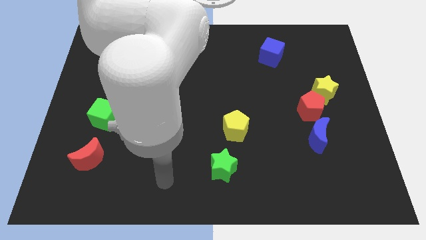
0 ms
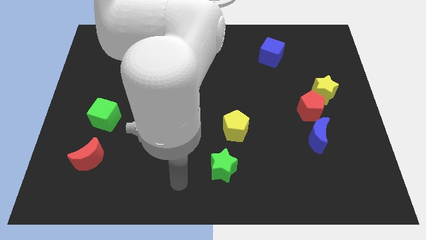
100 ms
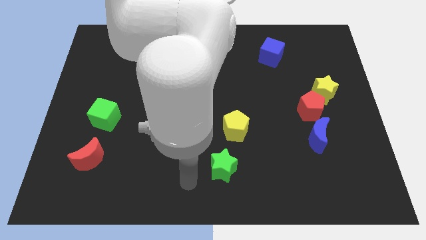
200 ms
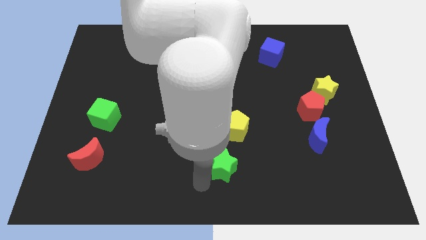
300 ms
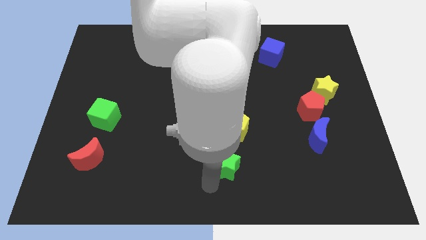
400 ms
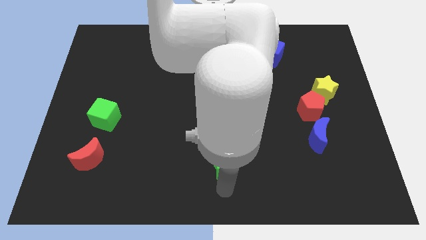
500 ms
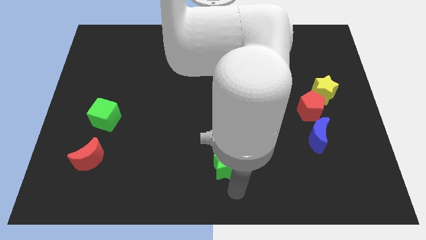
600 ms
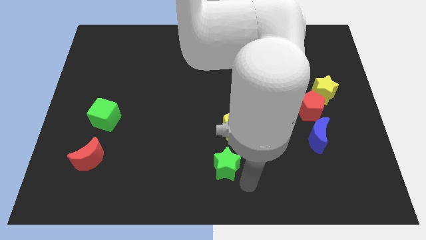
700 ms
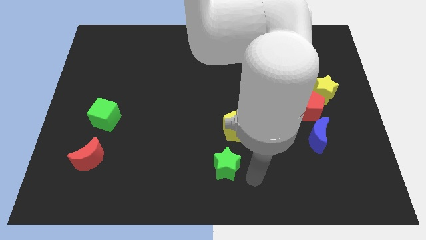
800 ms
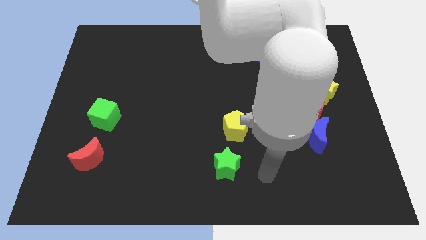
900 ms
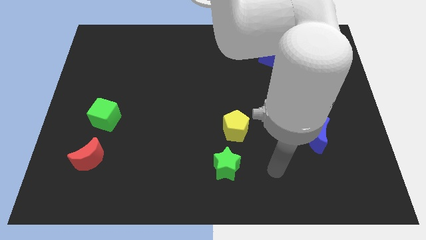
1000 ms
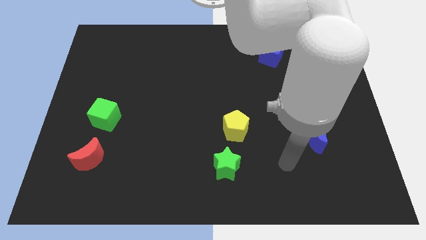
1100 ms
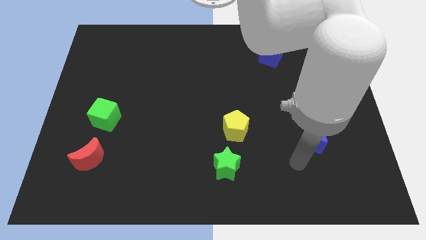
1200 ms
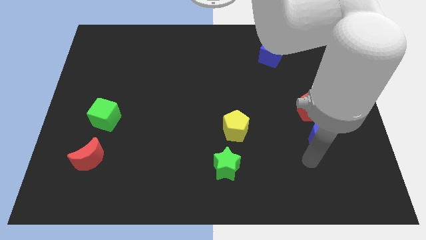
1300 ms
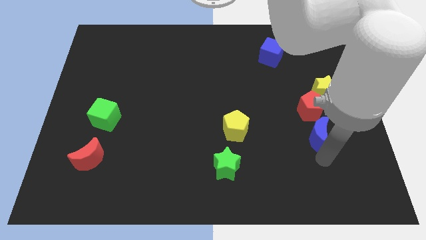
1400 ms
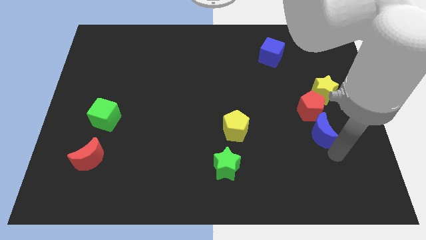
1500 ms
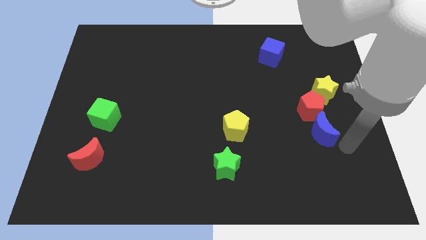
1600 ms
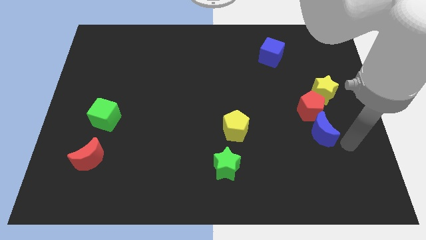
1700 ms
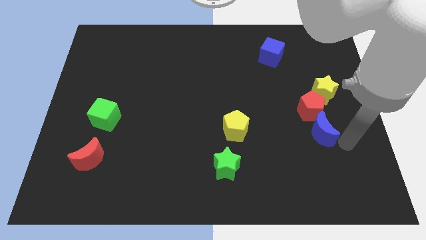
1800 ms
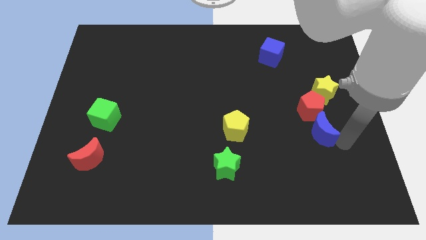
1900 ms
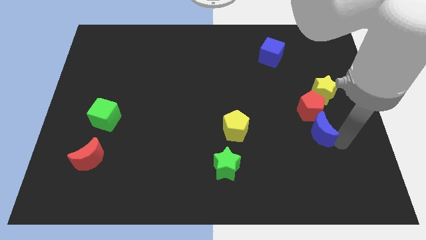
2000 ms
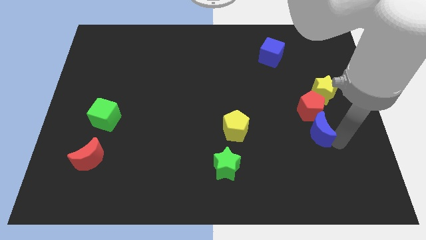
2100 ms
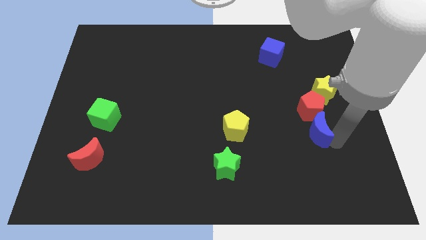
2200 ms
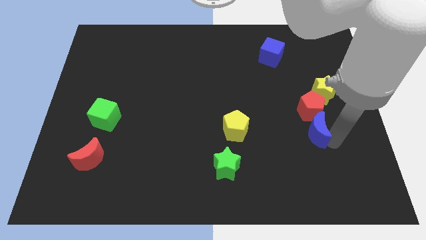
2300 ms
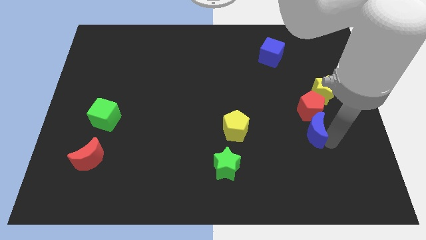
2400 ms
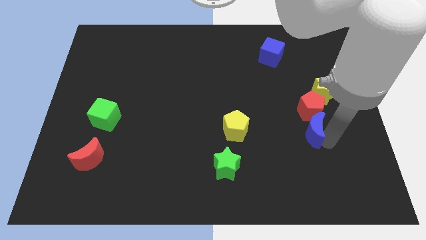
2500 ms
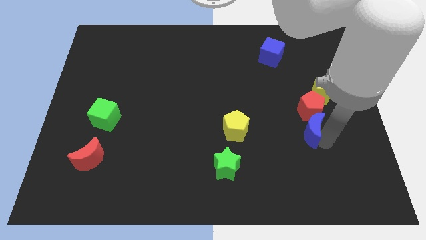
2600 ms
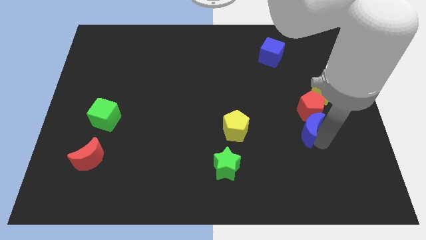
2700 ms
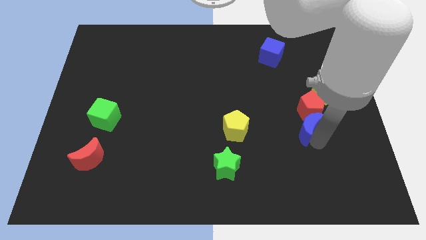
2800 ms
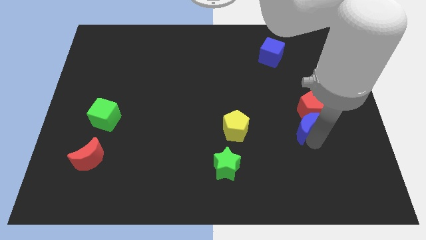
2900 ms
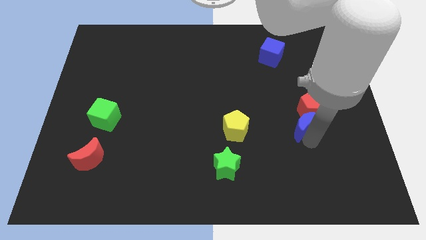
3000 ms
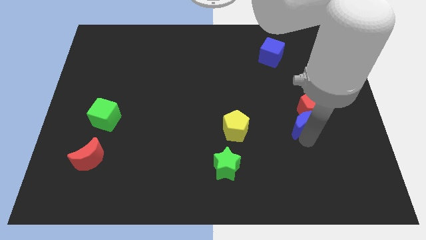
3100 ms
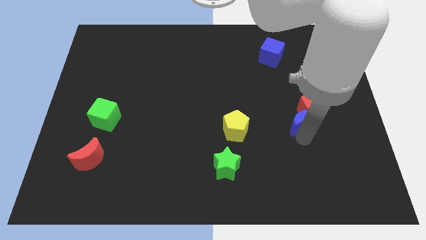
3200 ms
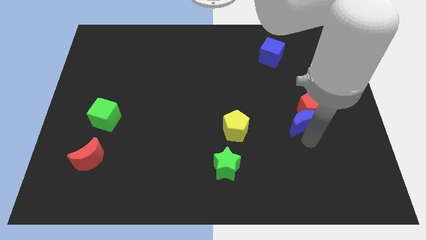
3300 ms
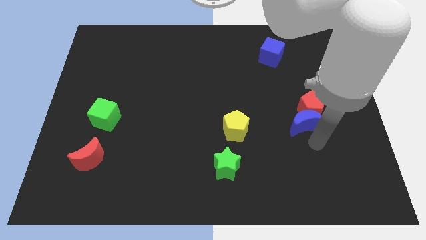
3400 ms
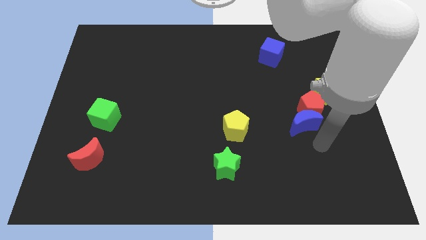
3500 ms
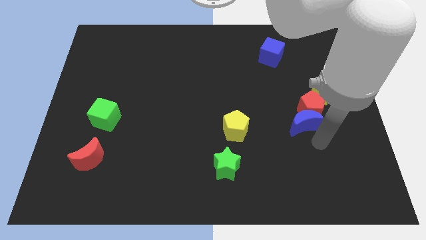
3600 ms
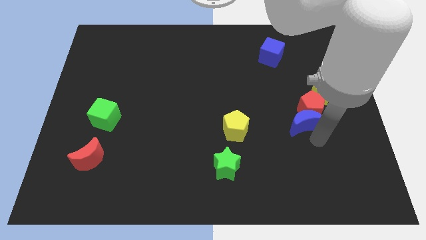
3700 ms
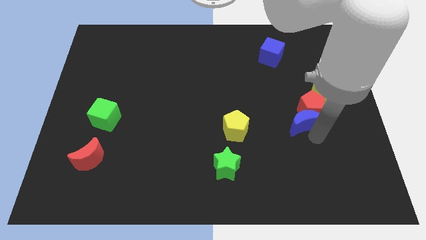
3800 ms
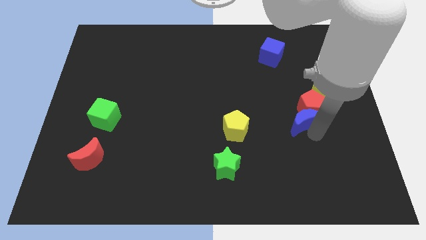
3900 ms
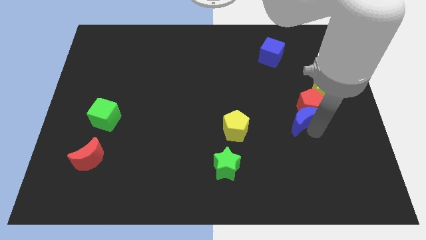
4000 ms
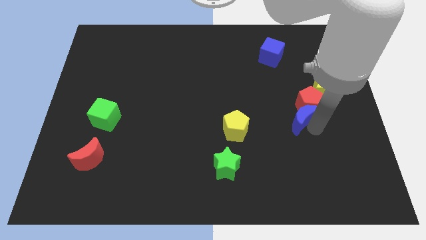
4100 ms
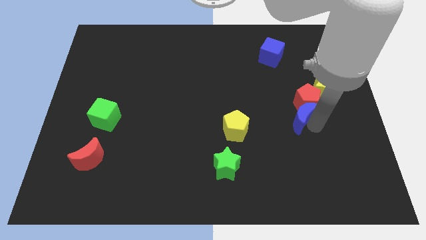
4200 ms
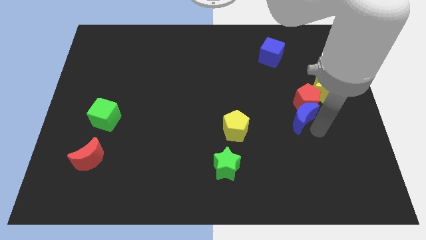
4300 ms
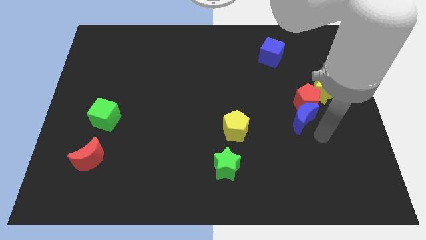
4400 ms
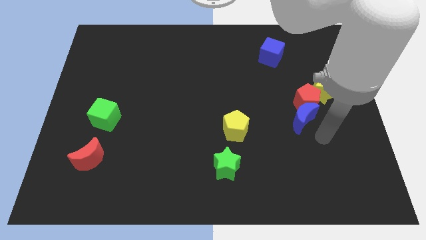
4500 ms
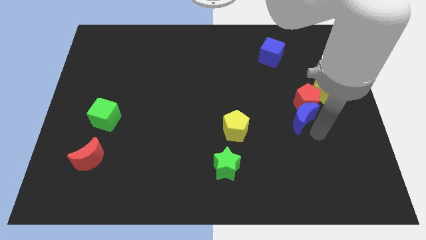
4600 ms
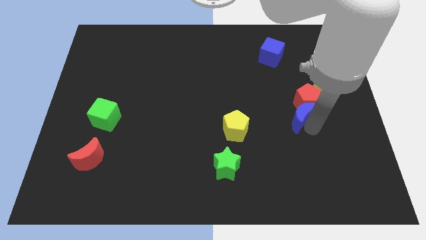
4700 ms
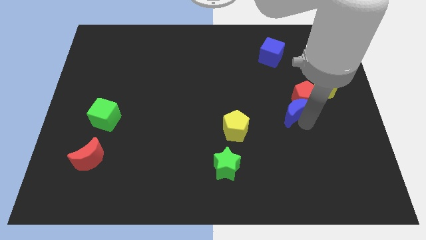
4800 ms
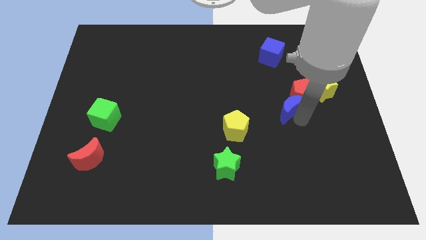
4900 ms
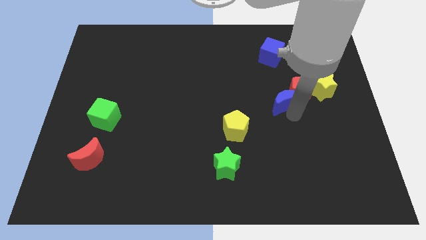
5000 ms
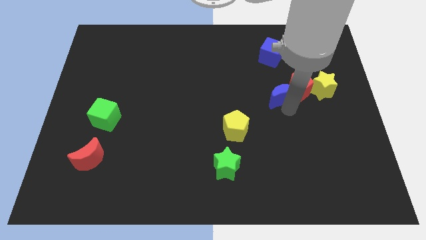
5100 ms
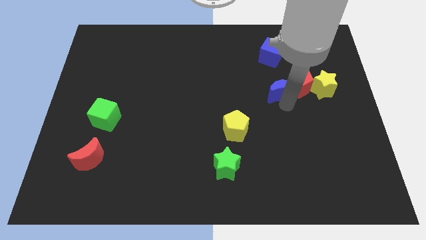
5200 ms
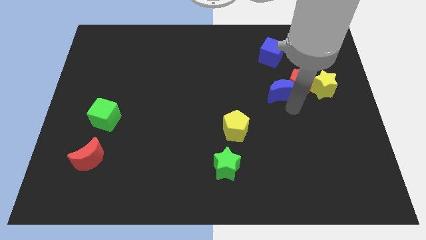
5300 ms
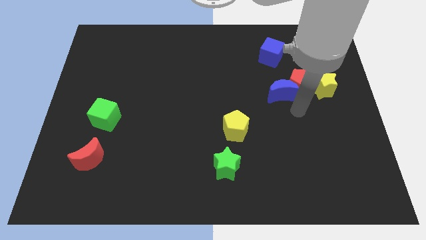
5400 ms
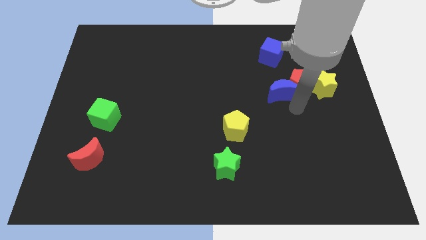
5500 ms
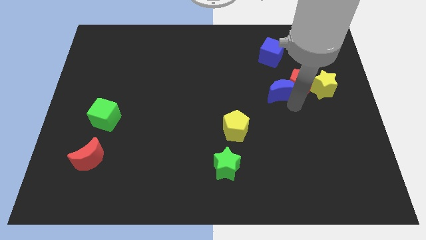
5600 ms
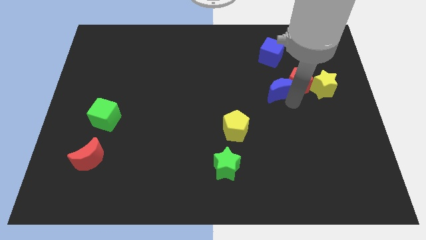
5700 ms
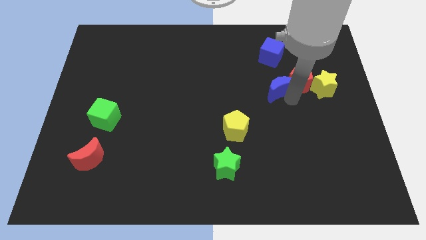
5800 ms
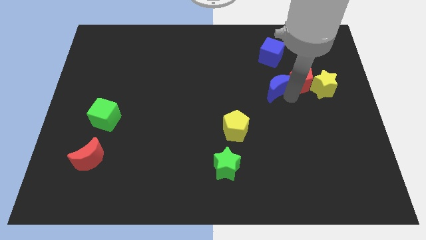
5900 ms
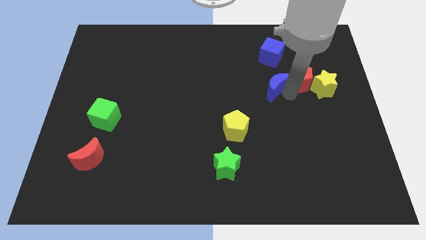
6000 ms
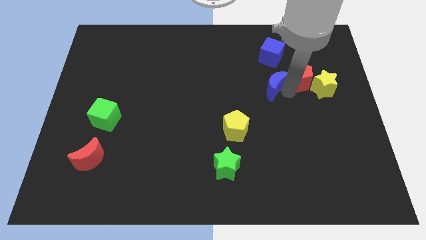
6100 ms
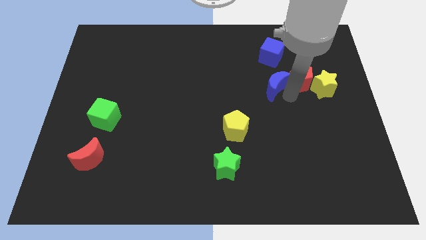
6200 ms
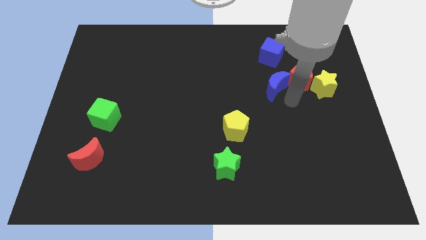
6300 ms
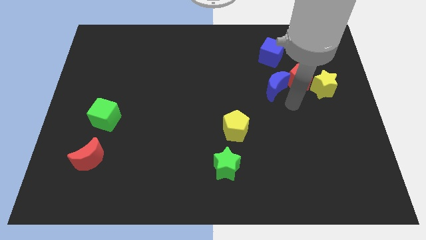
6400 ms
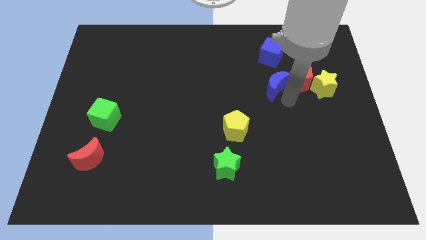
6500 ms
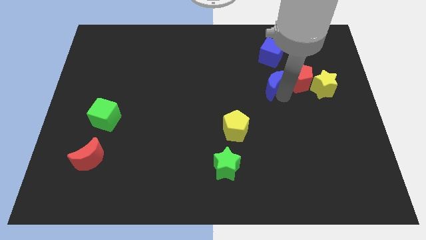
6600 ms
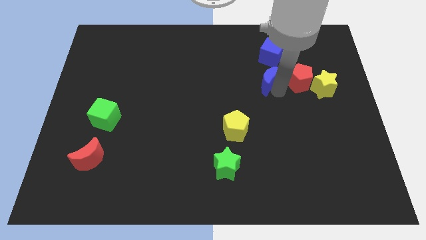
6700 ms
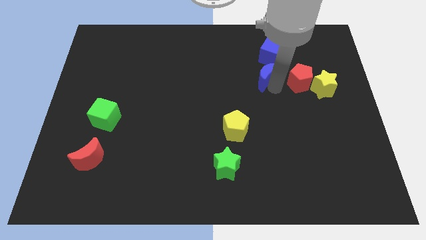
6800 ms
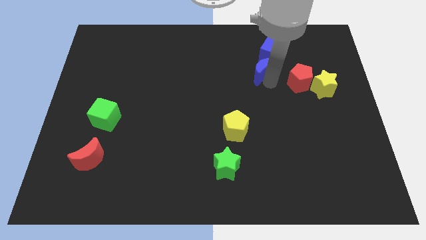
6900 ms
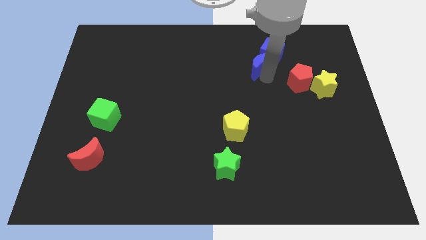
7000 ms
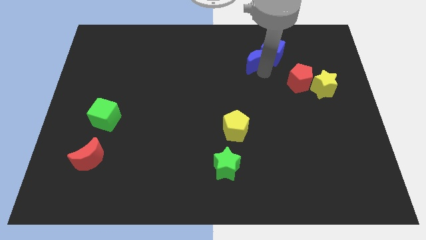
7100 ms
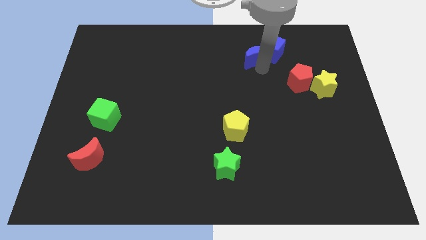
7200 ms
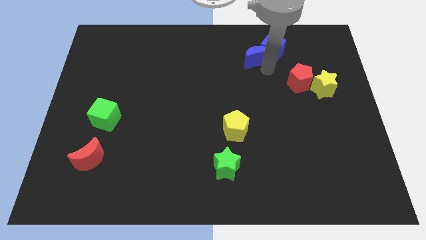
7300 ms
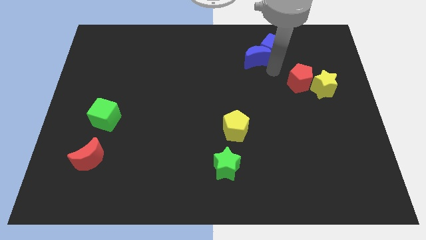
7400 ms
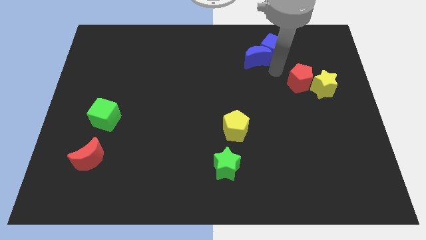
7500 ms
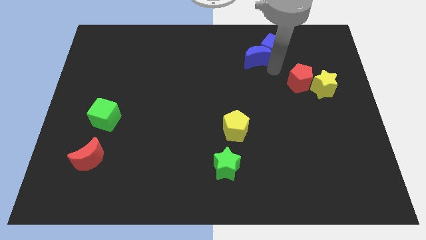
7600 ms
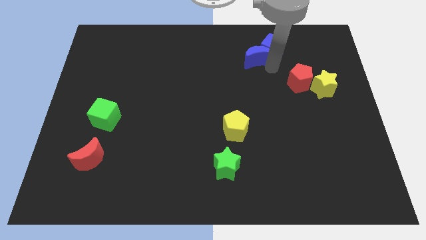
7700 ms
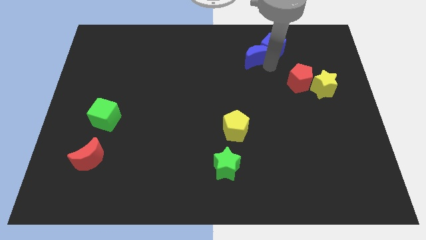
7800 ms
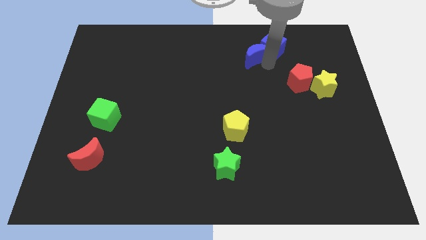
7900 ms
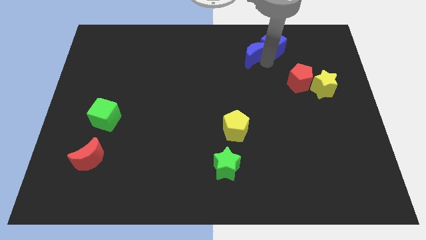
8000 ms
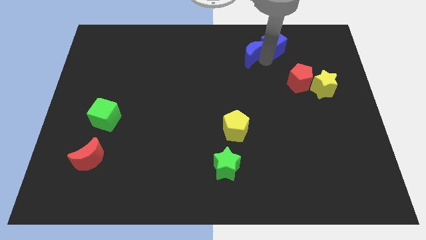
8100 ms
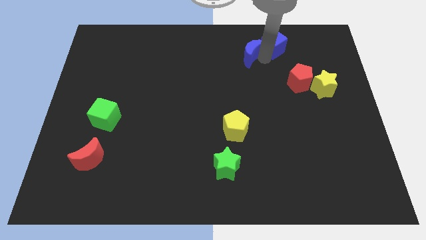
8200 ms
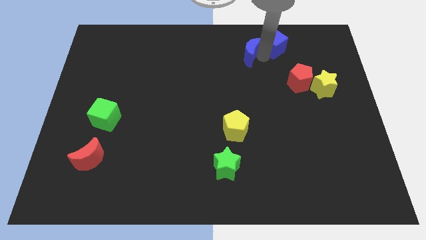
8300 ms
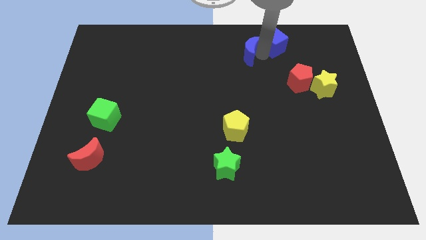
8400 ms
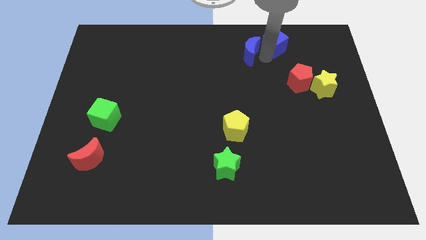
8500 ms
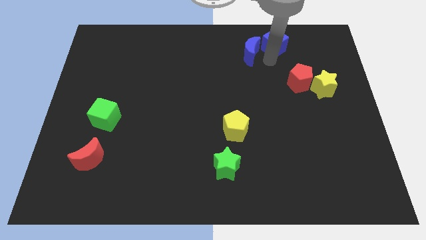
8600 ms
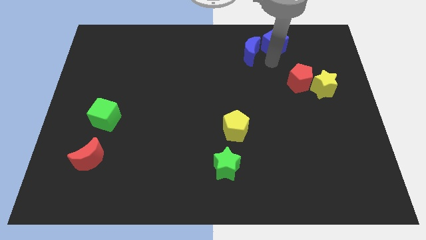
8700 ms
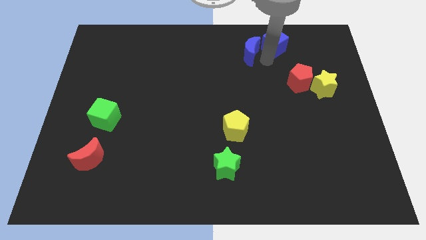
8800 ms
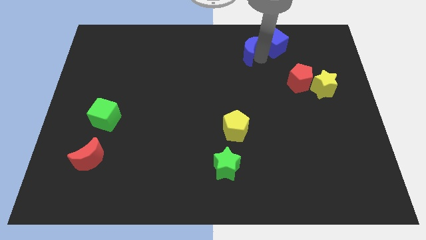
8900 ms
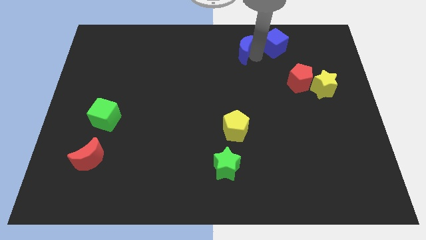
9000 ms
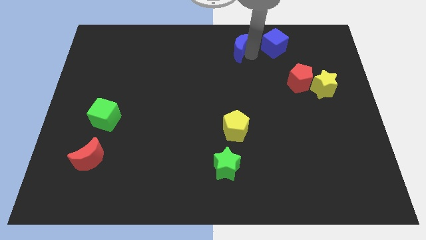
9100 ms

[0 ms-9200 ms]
put the blue moon to the top side
